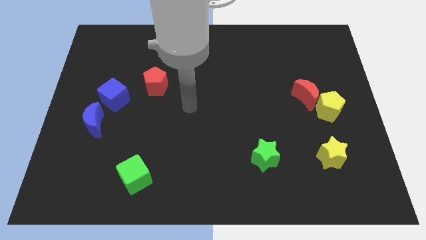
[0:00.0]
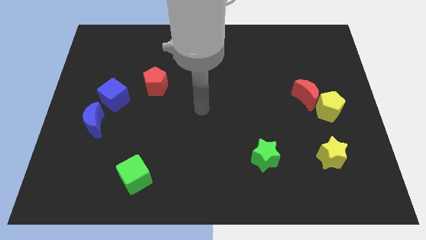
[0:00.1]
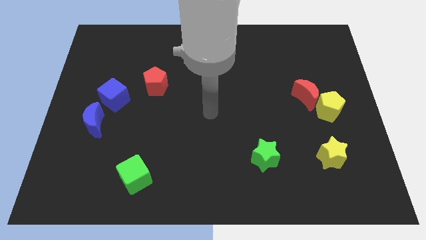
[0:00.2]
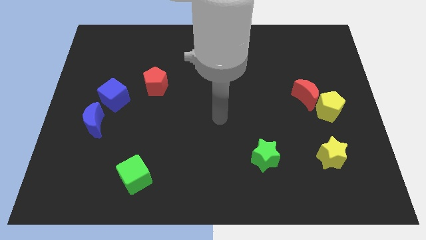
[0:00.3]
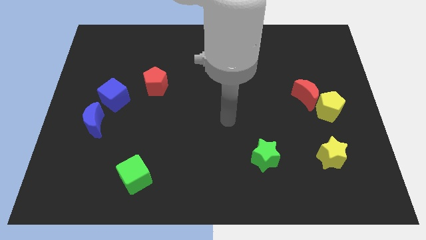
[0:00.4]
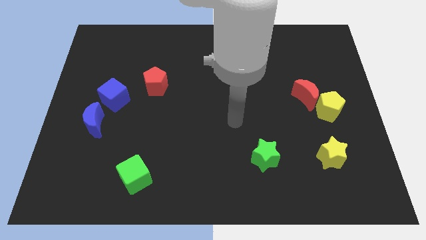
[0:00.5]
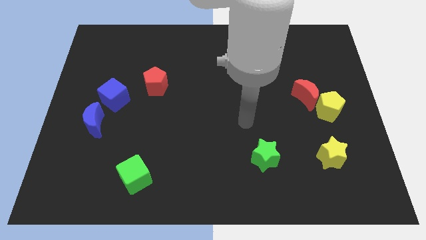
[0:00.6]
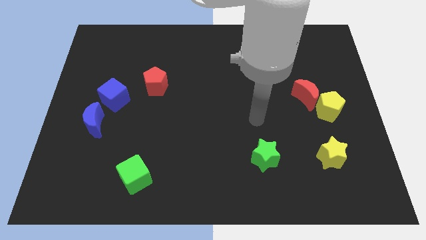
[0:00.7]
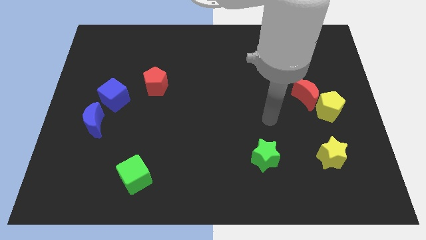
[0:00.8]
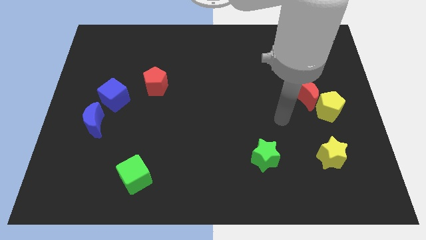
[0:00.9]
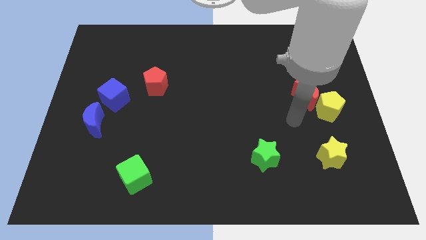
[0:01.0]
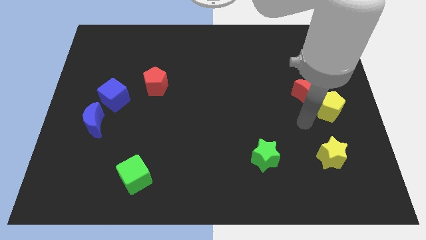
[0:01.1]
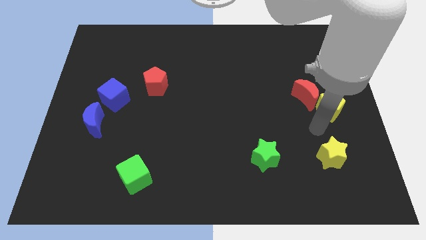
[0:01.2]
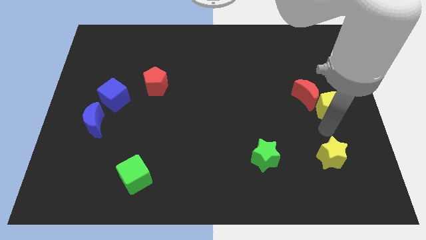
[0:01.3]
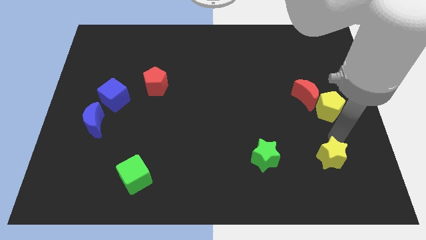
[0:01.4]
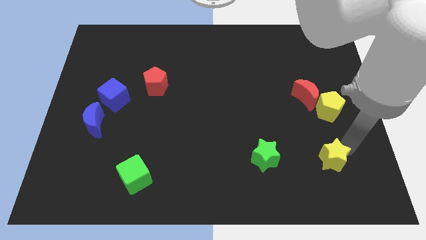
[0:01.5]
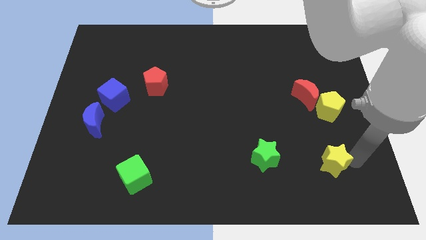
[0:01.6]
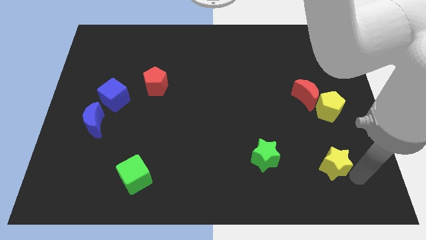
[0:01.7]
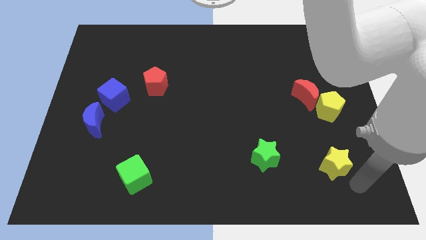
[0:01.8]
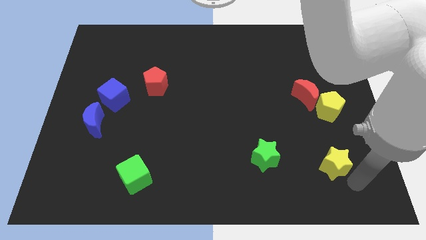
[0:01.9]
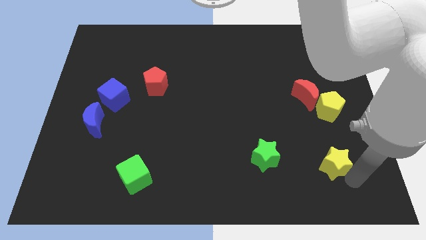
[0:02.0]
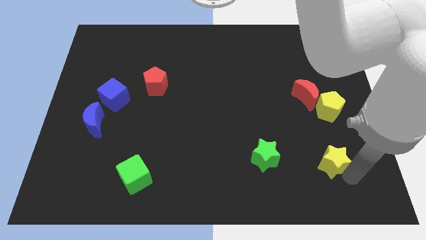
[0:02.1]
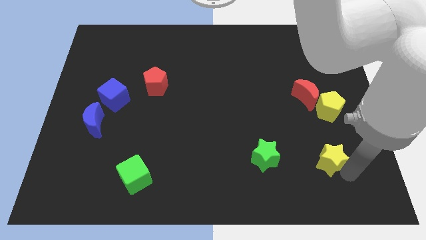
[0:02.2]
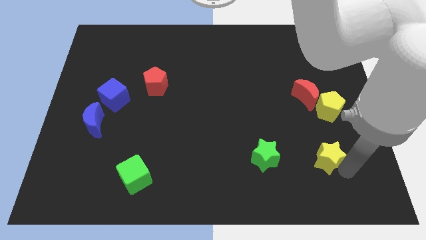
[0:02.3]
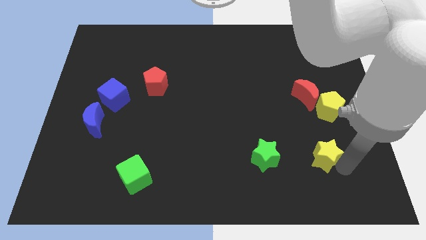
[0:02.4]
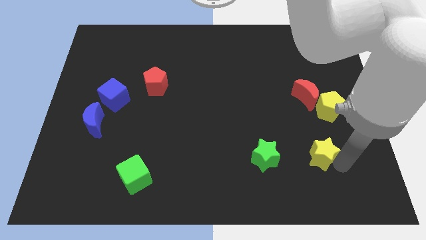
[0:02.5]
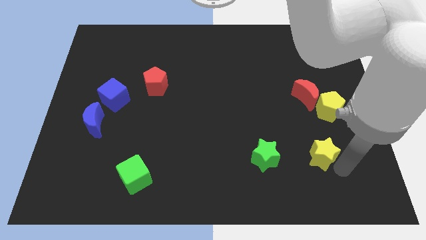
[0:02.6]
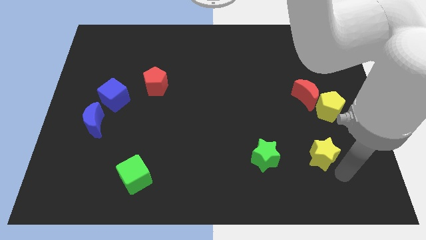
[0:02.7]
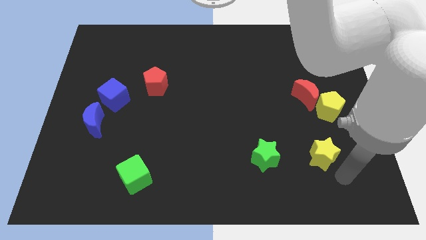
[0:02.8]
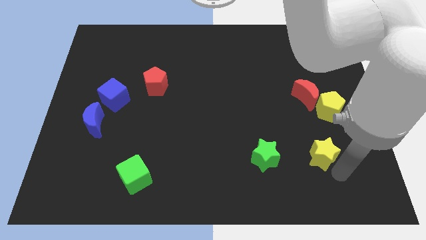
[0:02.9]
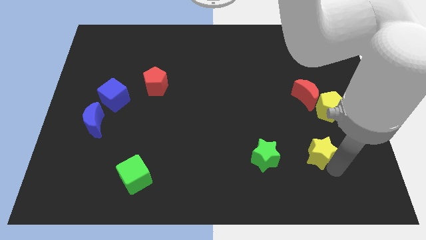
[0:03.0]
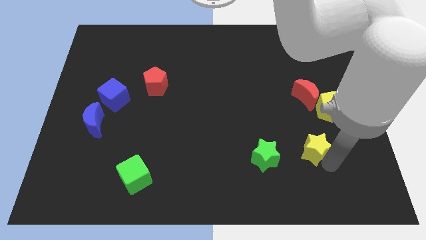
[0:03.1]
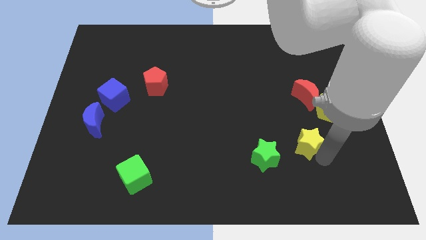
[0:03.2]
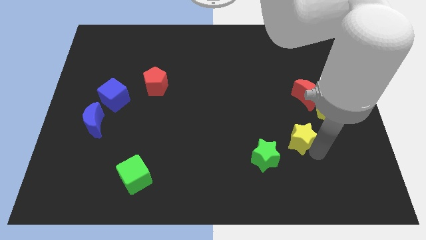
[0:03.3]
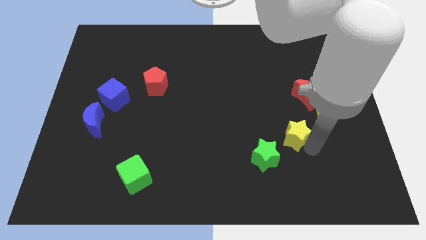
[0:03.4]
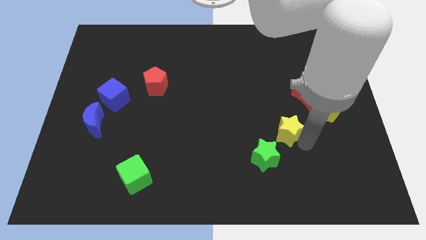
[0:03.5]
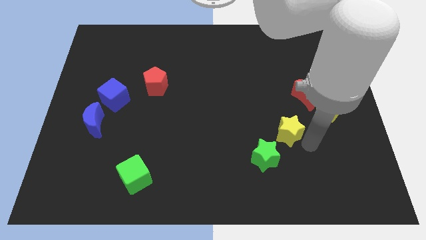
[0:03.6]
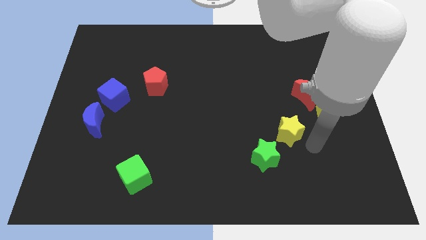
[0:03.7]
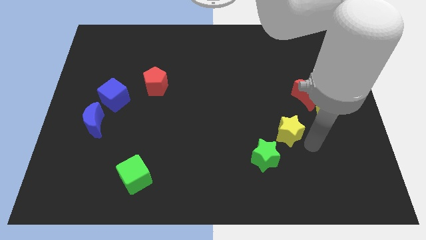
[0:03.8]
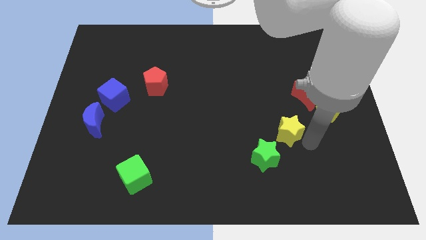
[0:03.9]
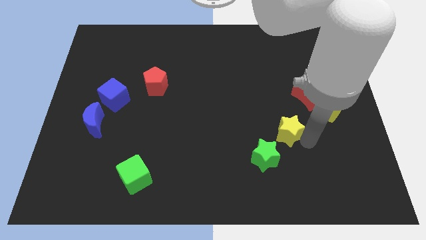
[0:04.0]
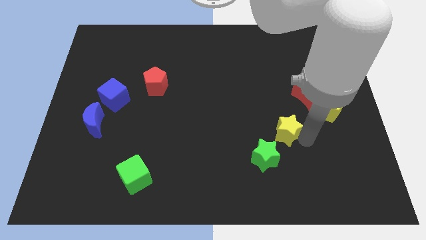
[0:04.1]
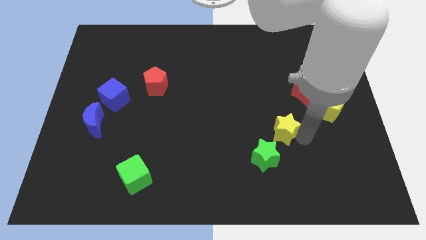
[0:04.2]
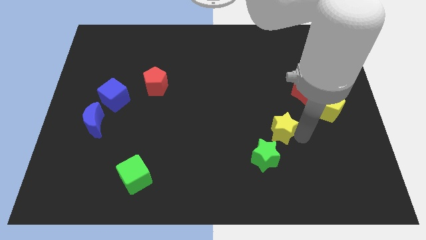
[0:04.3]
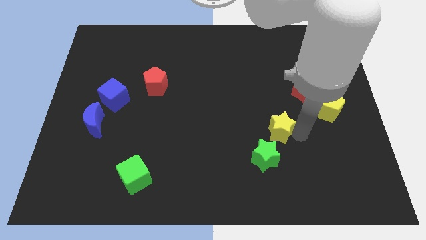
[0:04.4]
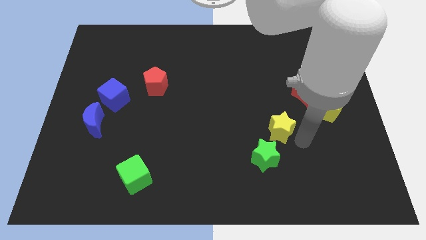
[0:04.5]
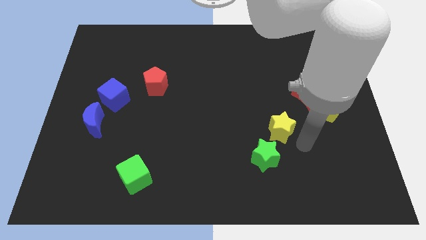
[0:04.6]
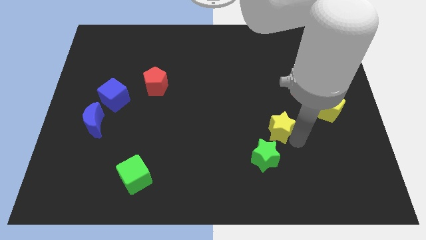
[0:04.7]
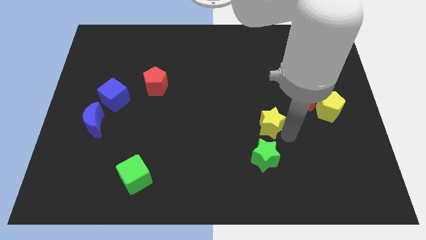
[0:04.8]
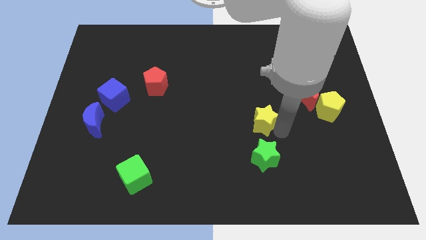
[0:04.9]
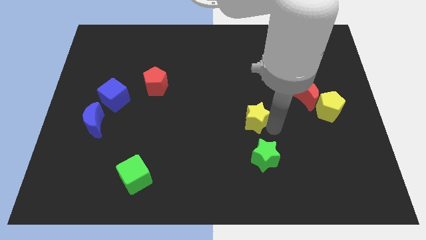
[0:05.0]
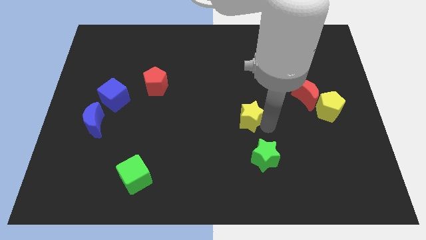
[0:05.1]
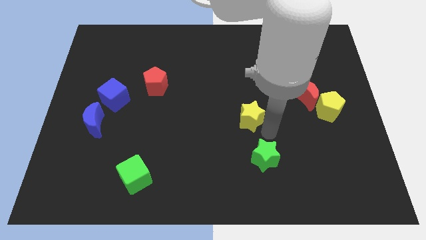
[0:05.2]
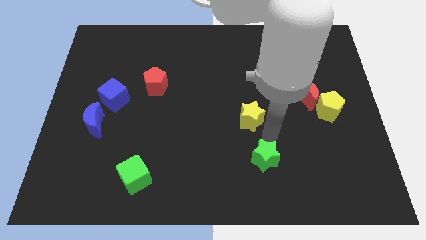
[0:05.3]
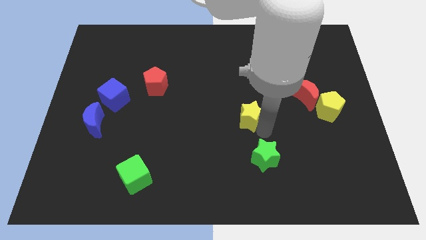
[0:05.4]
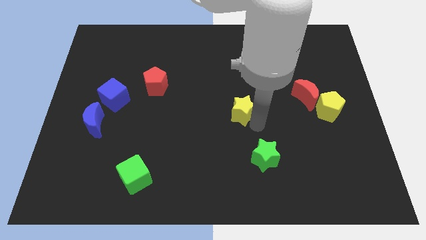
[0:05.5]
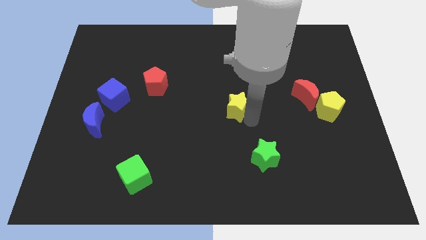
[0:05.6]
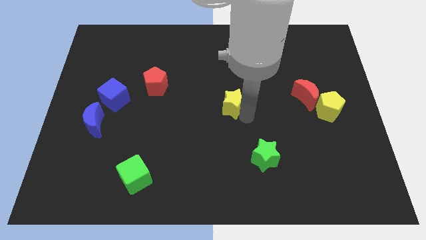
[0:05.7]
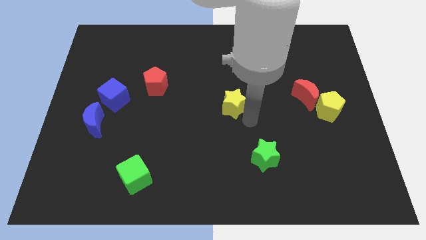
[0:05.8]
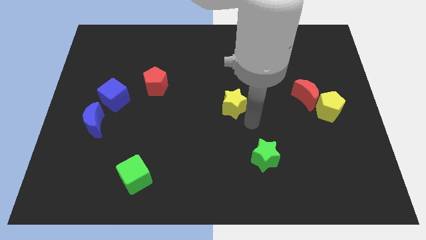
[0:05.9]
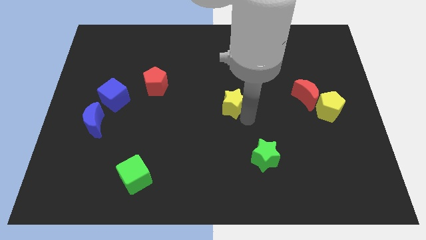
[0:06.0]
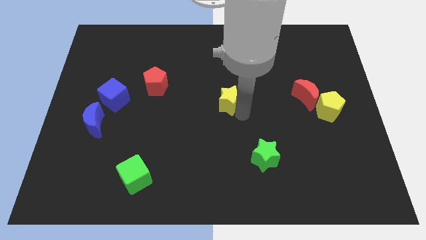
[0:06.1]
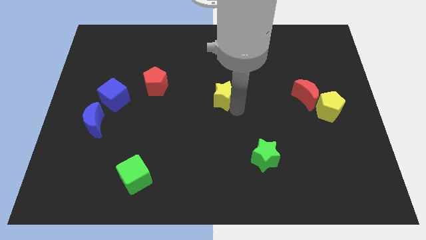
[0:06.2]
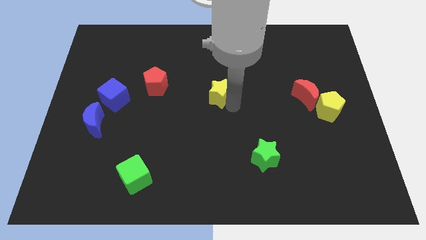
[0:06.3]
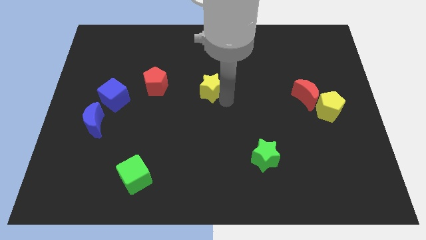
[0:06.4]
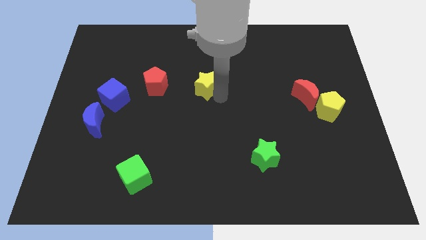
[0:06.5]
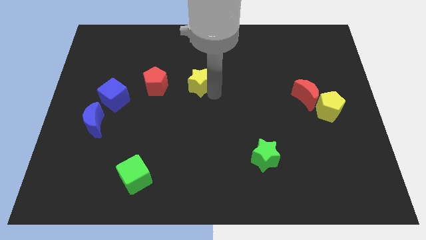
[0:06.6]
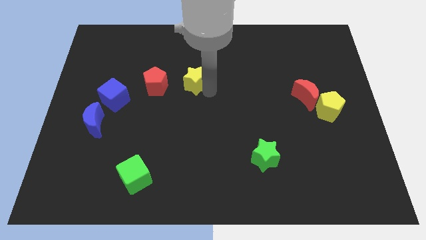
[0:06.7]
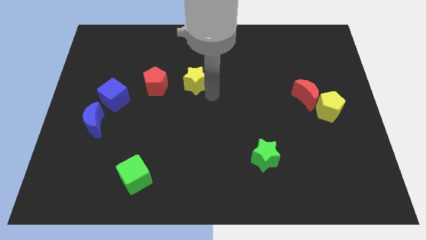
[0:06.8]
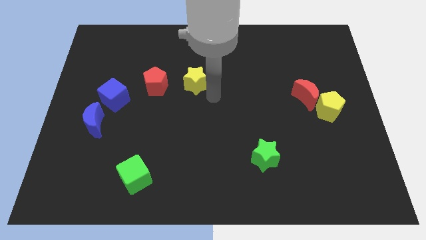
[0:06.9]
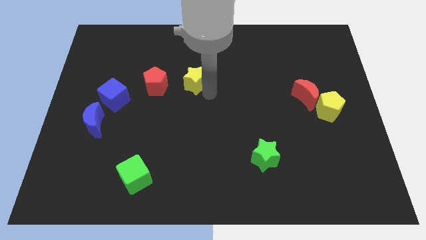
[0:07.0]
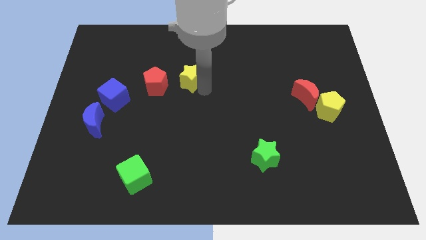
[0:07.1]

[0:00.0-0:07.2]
move the yellow star to the top right of the red pentagon

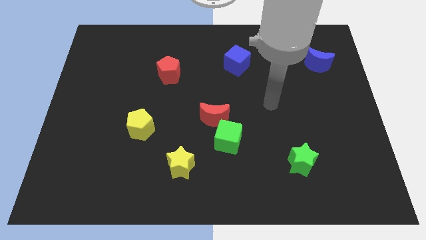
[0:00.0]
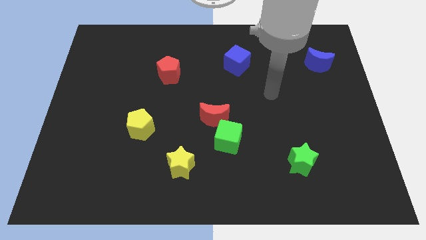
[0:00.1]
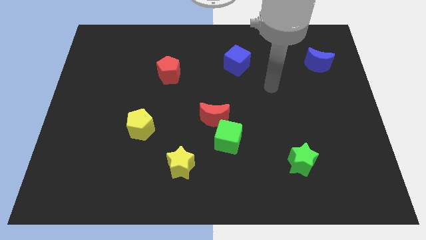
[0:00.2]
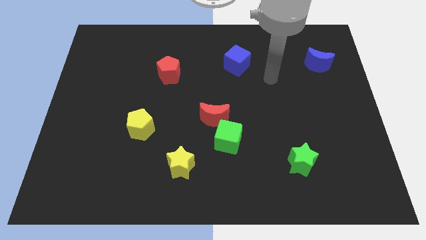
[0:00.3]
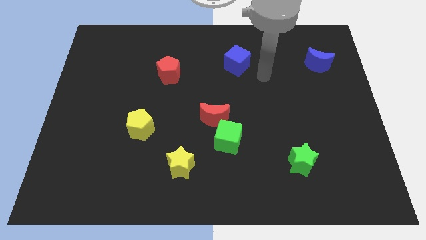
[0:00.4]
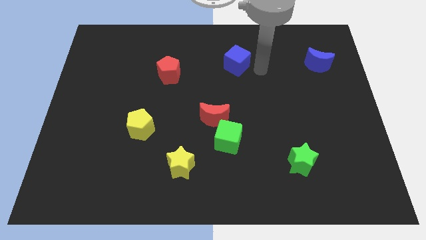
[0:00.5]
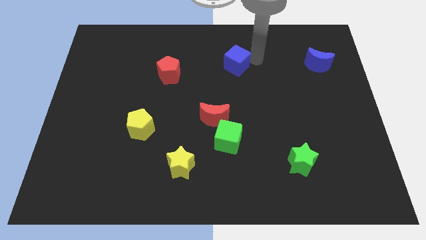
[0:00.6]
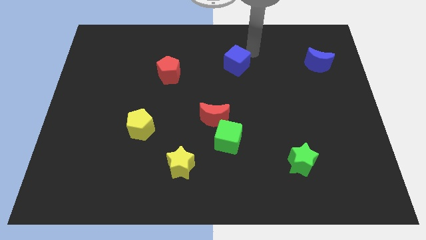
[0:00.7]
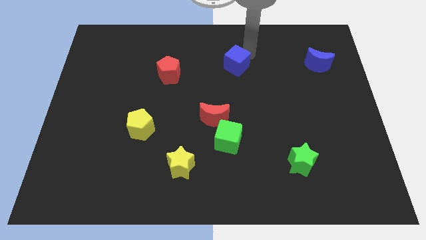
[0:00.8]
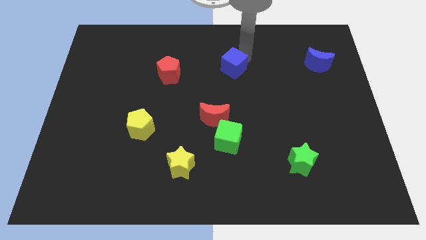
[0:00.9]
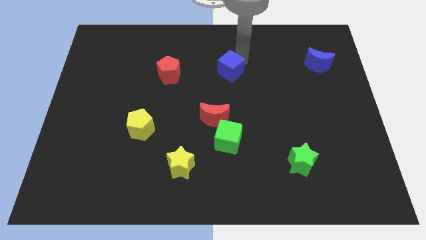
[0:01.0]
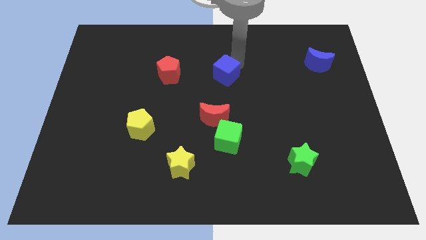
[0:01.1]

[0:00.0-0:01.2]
put the blue cube to the top side of the red moon
